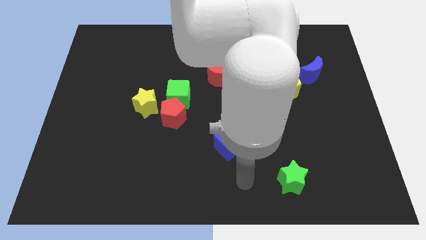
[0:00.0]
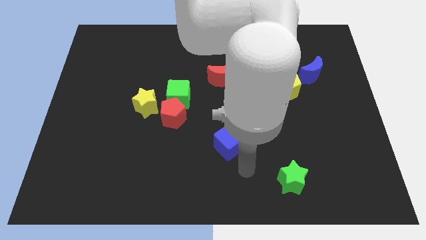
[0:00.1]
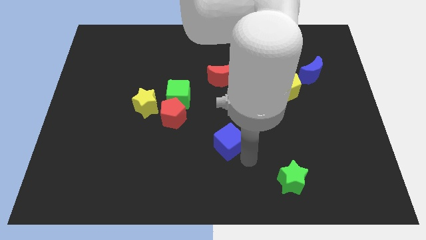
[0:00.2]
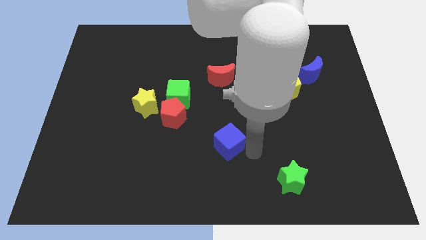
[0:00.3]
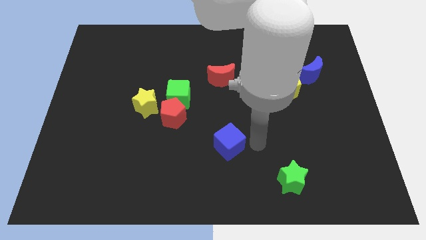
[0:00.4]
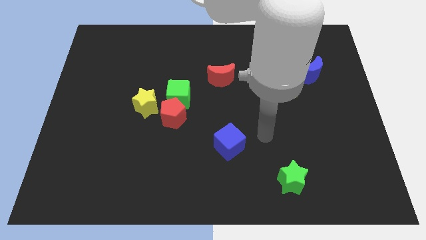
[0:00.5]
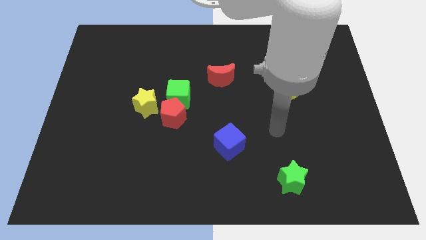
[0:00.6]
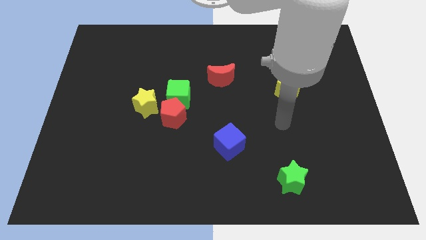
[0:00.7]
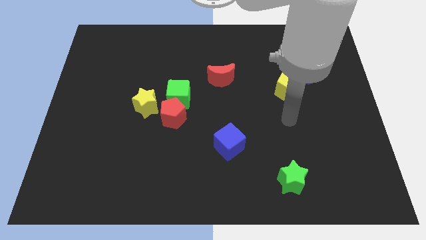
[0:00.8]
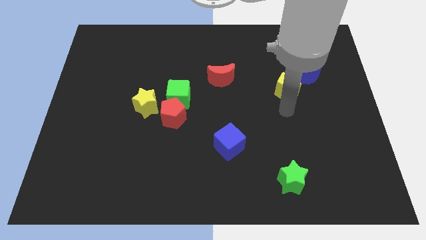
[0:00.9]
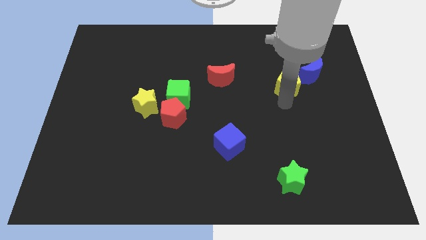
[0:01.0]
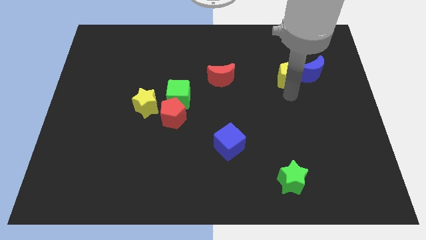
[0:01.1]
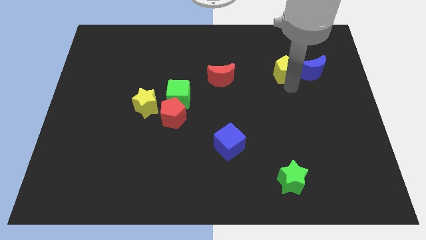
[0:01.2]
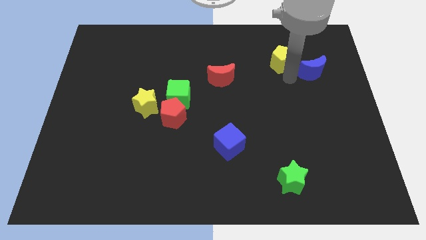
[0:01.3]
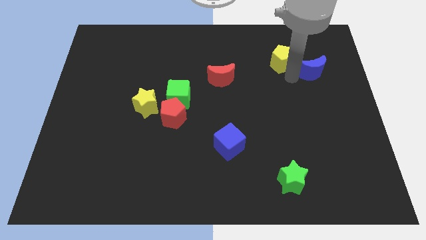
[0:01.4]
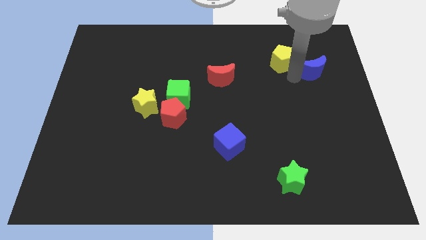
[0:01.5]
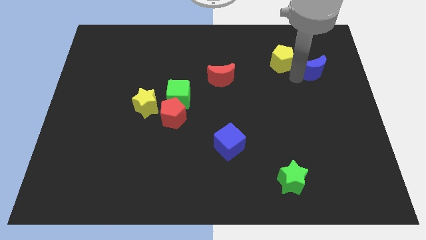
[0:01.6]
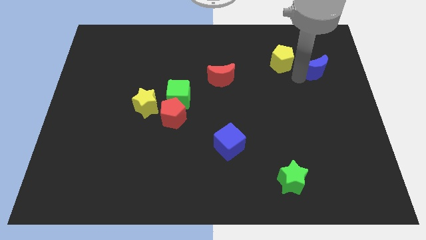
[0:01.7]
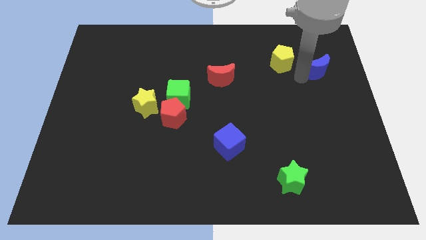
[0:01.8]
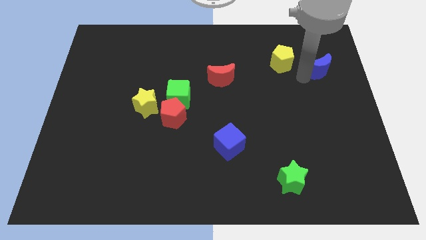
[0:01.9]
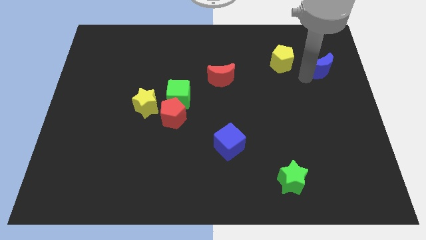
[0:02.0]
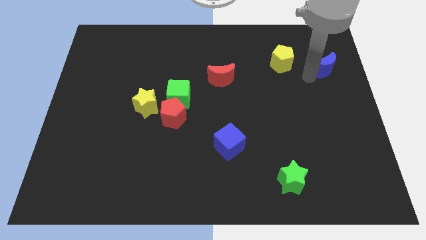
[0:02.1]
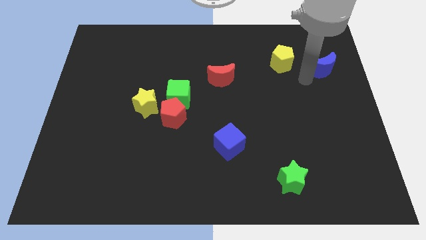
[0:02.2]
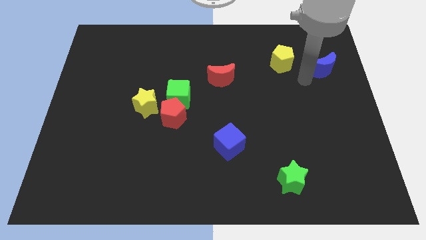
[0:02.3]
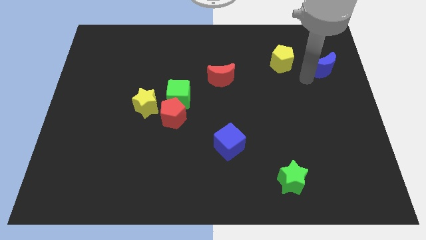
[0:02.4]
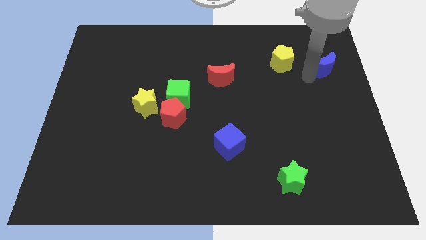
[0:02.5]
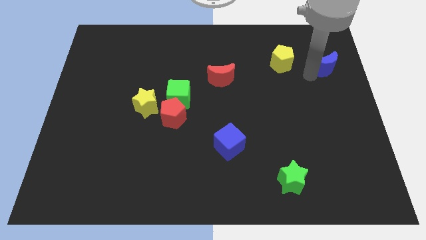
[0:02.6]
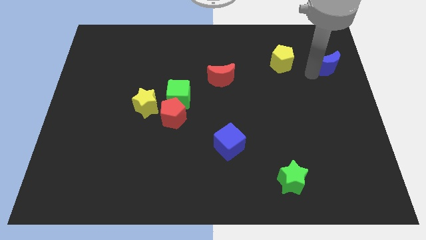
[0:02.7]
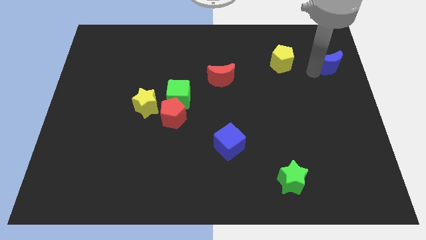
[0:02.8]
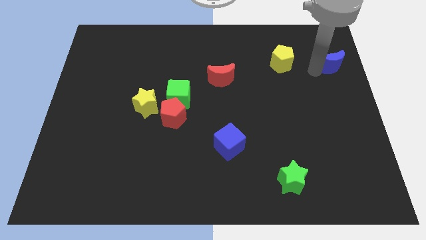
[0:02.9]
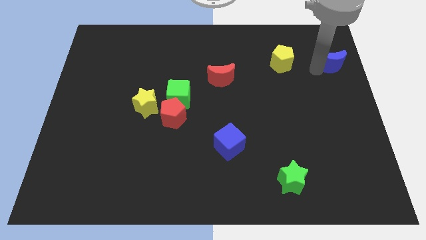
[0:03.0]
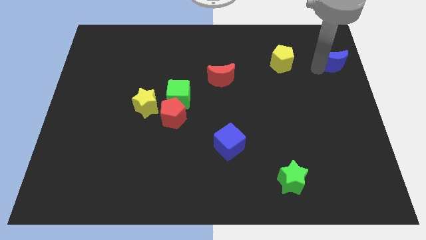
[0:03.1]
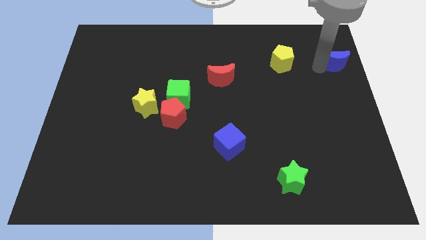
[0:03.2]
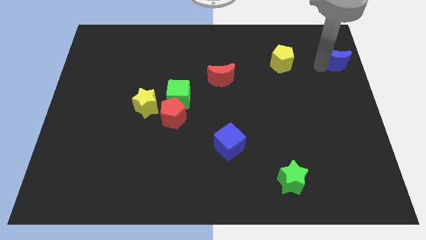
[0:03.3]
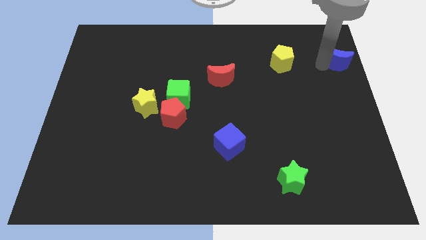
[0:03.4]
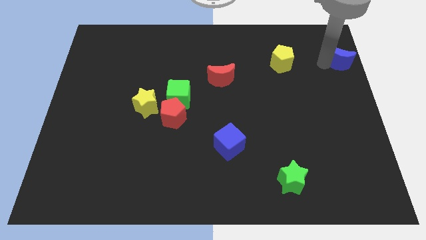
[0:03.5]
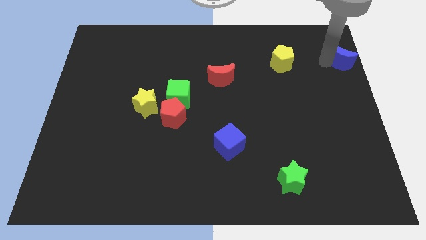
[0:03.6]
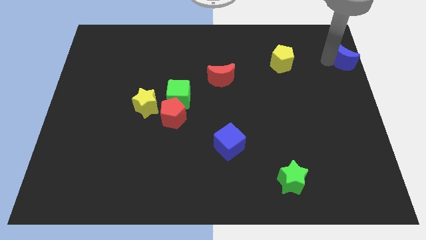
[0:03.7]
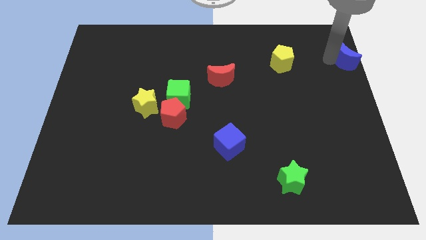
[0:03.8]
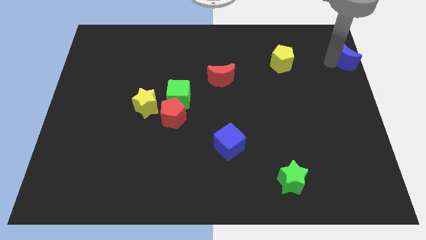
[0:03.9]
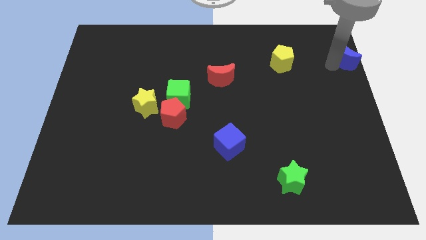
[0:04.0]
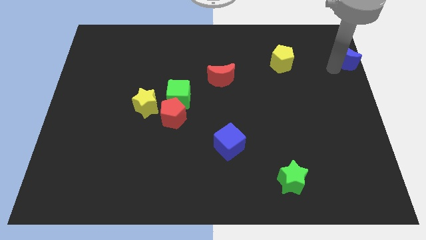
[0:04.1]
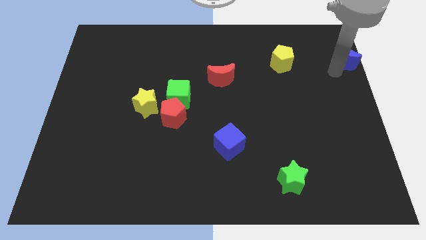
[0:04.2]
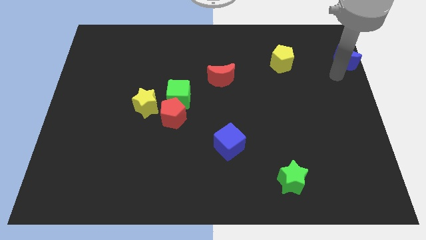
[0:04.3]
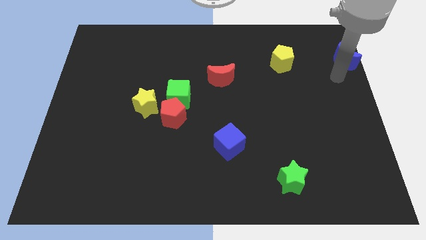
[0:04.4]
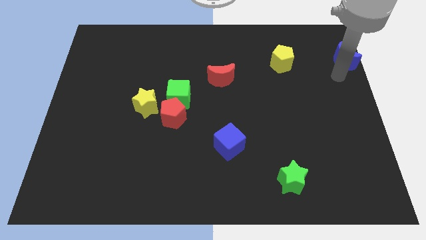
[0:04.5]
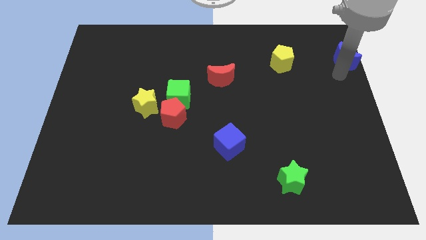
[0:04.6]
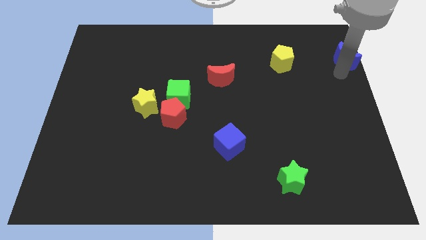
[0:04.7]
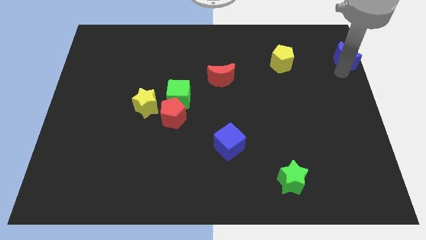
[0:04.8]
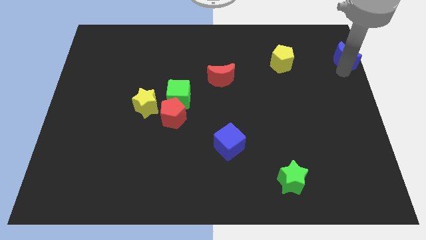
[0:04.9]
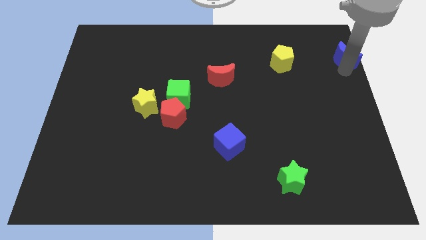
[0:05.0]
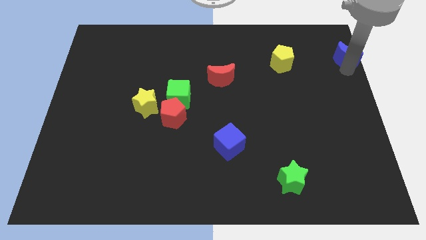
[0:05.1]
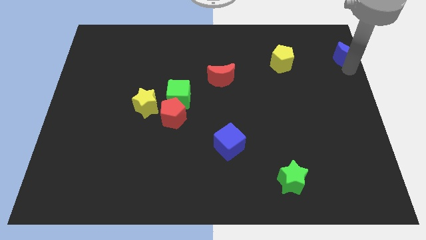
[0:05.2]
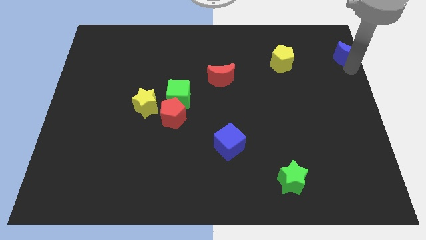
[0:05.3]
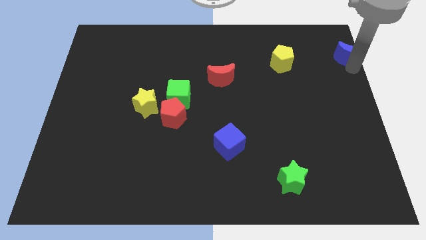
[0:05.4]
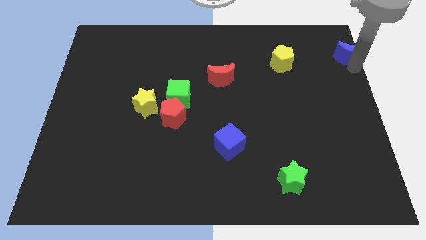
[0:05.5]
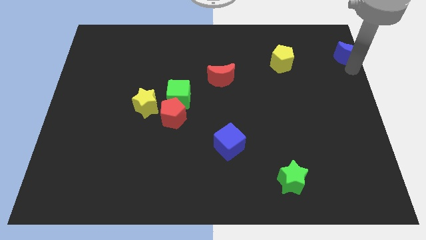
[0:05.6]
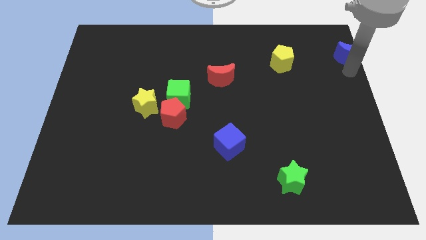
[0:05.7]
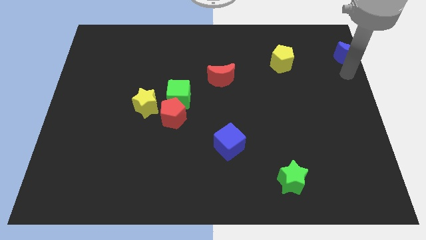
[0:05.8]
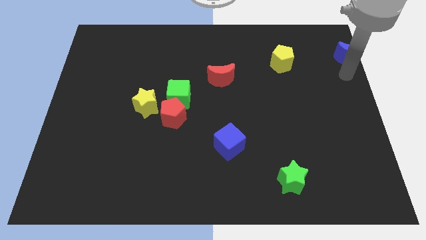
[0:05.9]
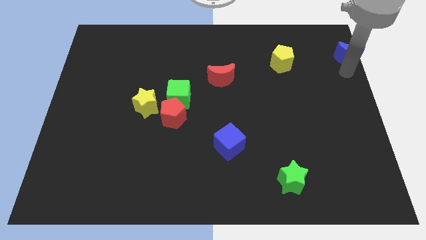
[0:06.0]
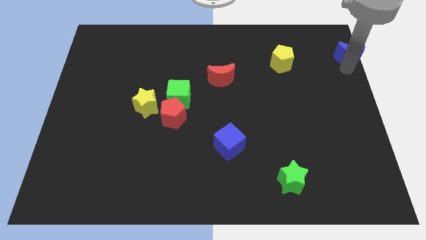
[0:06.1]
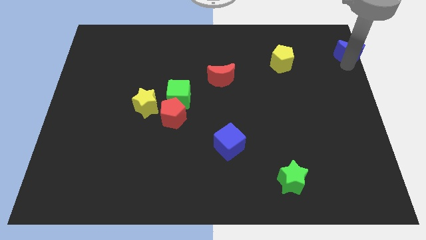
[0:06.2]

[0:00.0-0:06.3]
move the blue moon to the upper right corner
